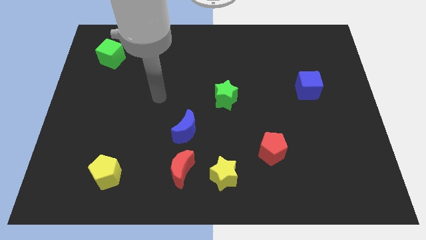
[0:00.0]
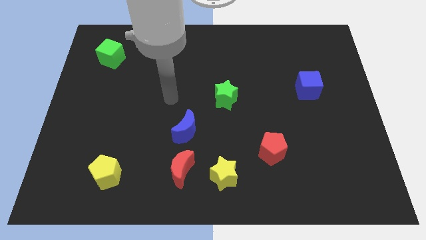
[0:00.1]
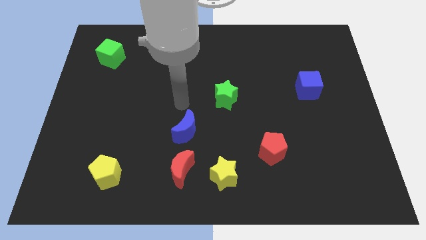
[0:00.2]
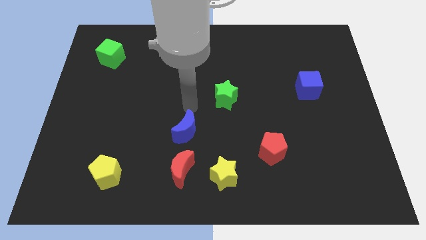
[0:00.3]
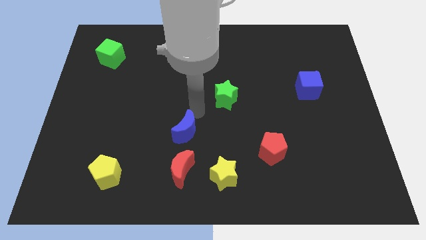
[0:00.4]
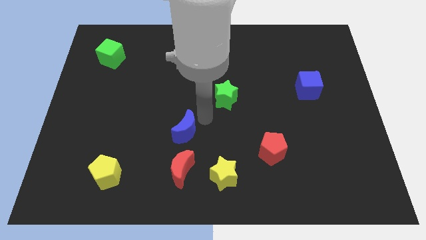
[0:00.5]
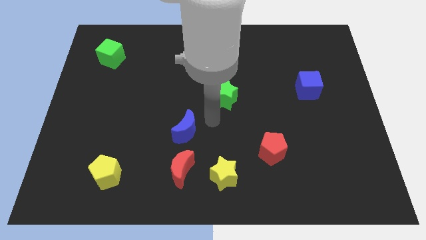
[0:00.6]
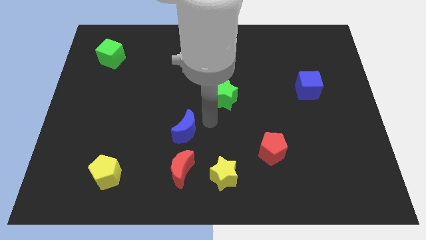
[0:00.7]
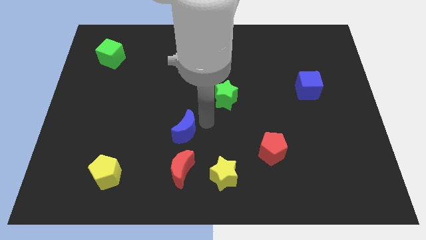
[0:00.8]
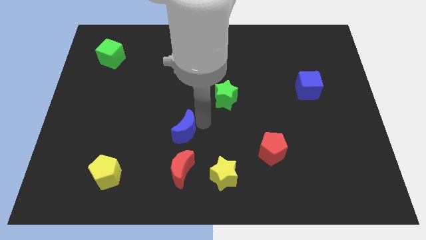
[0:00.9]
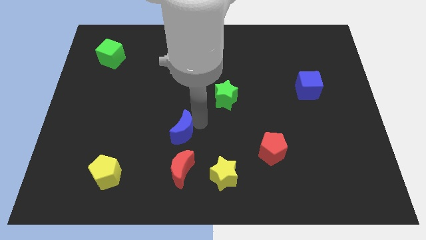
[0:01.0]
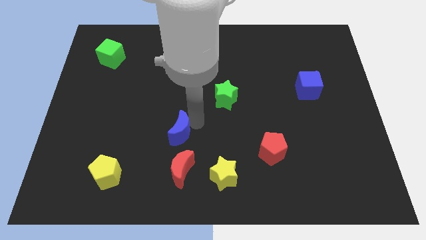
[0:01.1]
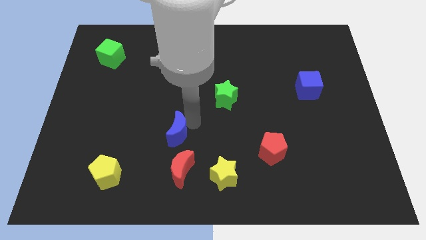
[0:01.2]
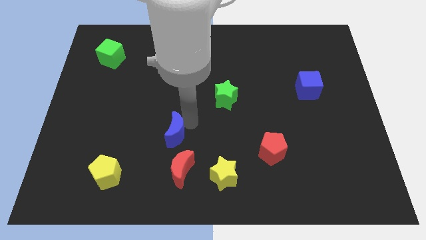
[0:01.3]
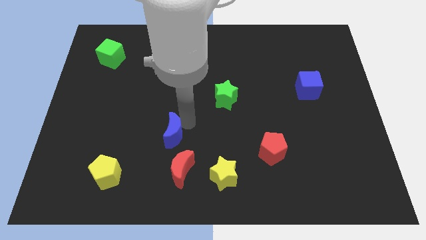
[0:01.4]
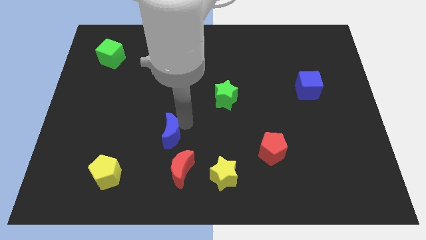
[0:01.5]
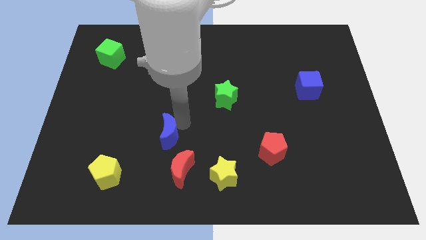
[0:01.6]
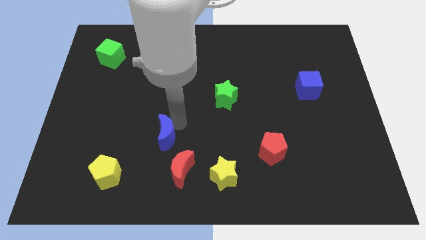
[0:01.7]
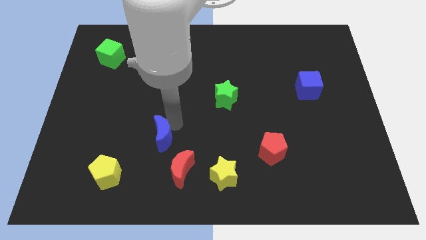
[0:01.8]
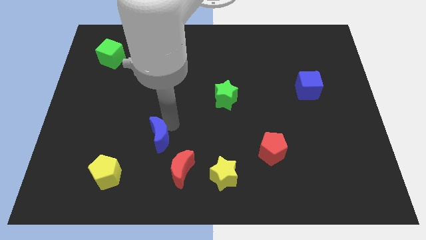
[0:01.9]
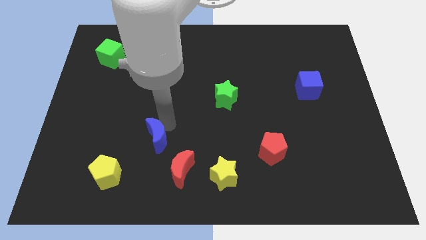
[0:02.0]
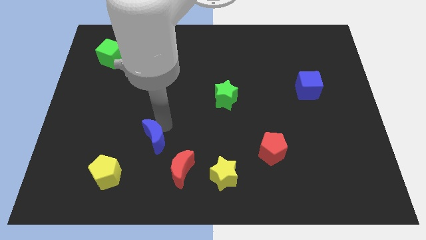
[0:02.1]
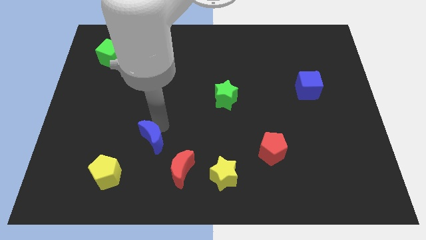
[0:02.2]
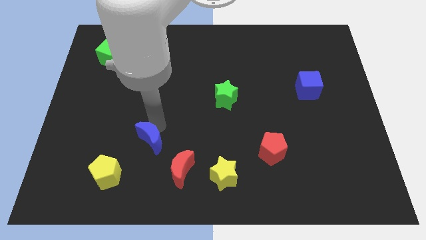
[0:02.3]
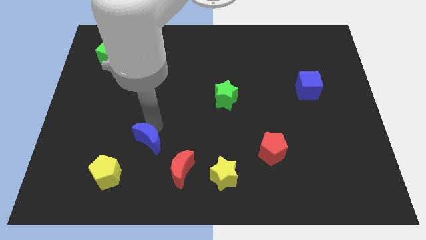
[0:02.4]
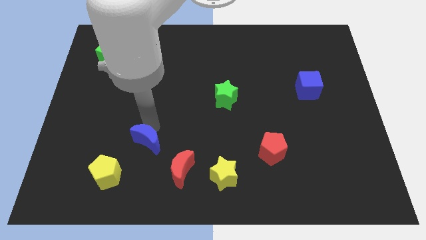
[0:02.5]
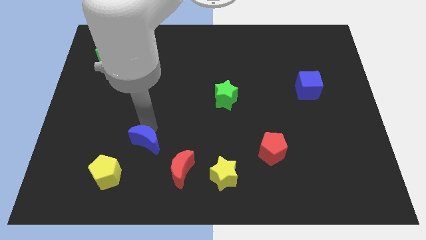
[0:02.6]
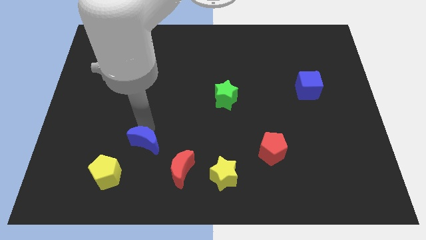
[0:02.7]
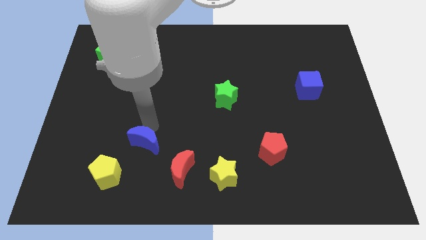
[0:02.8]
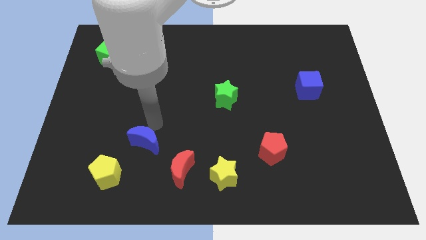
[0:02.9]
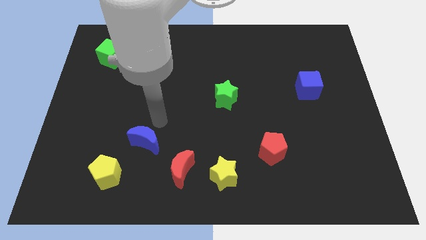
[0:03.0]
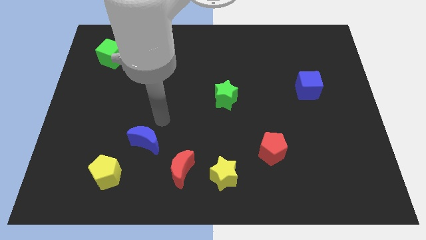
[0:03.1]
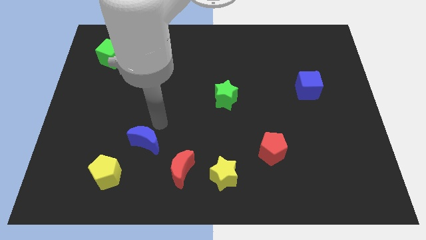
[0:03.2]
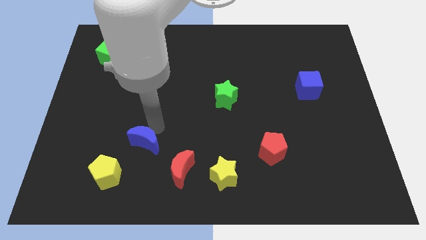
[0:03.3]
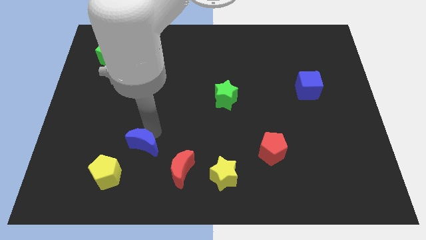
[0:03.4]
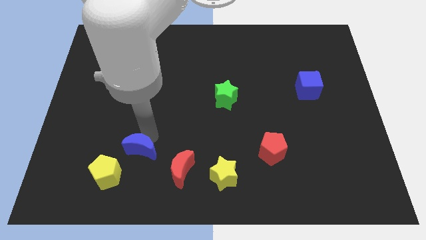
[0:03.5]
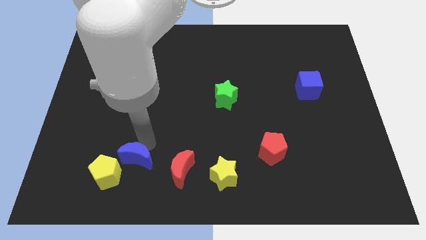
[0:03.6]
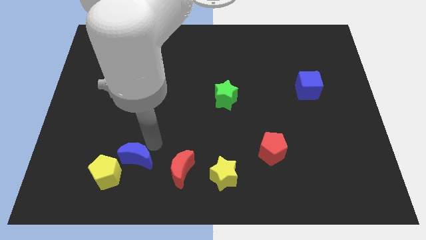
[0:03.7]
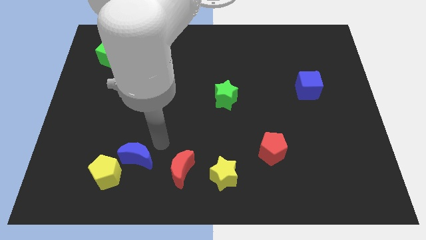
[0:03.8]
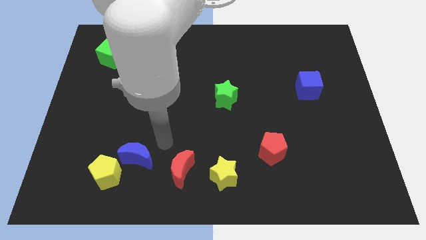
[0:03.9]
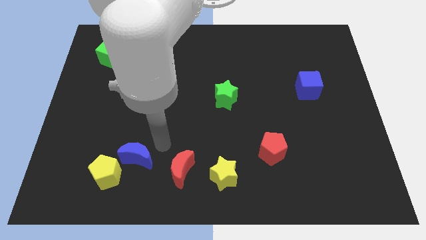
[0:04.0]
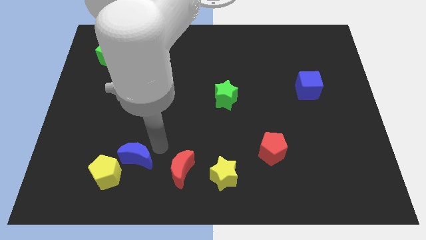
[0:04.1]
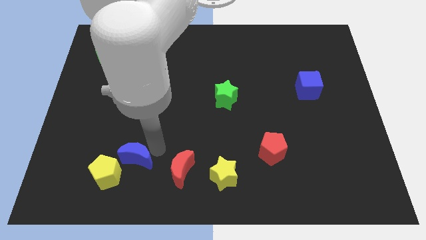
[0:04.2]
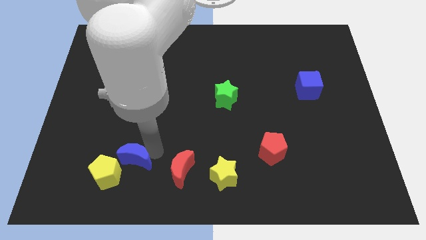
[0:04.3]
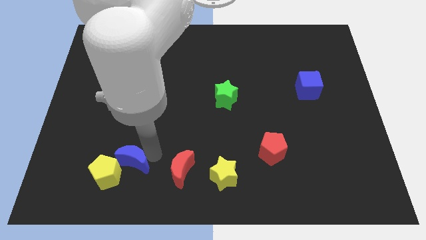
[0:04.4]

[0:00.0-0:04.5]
slide the blue moon to the yellow pentagon

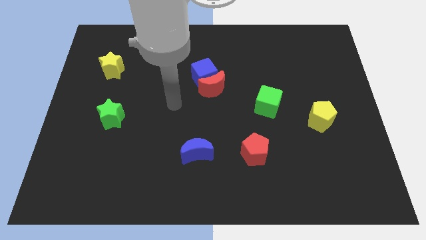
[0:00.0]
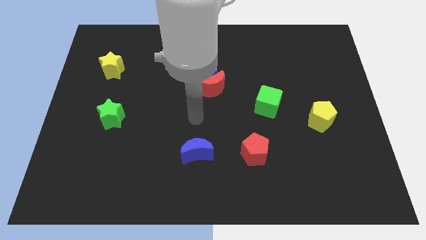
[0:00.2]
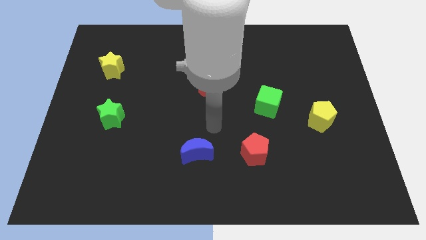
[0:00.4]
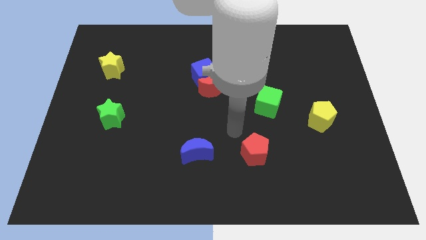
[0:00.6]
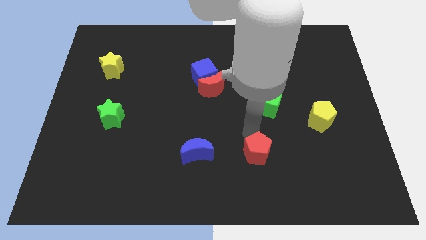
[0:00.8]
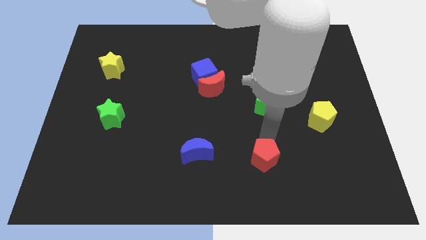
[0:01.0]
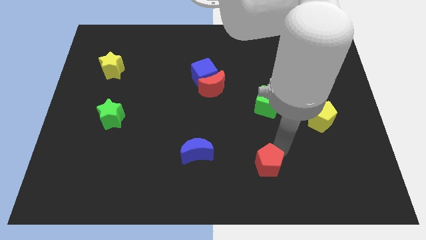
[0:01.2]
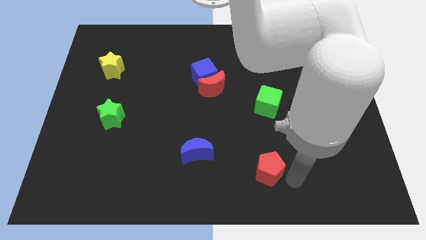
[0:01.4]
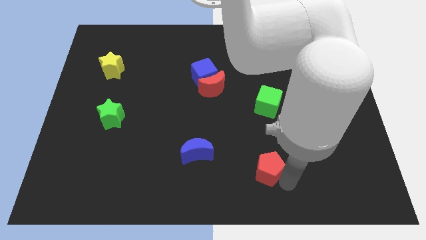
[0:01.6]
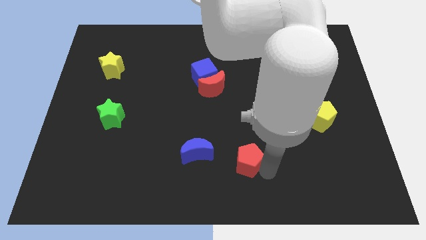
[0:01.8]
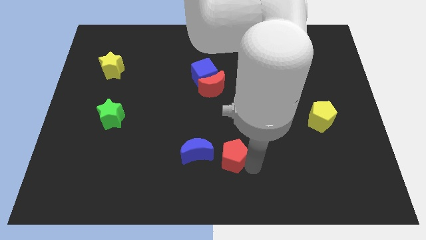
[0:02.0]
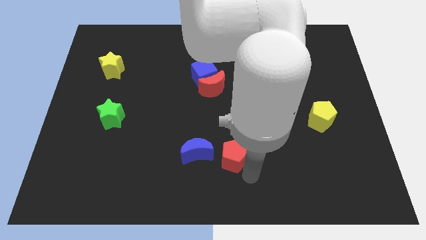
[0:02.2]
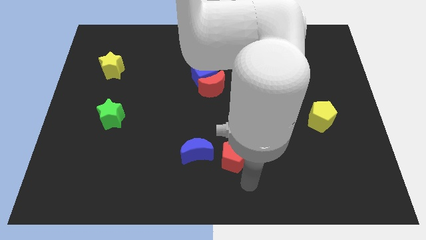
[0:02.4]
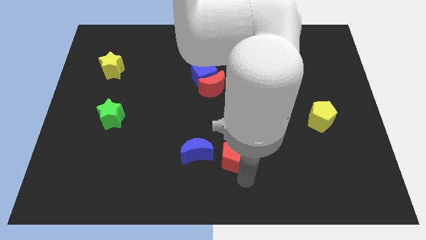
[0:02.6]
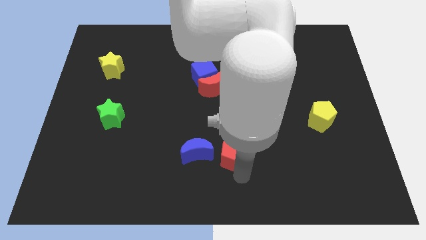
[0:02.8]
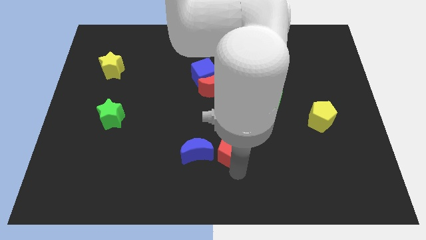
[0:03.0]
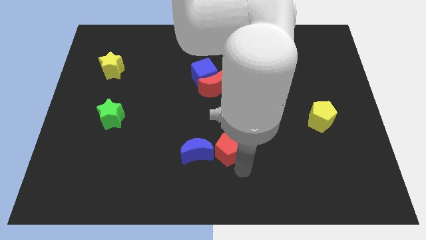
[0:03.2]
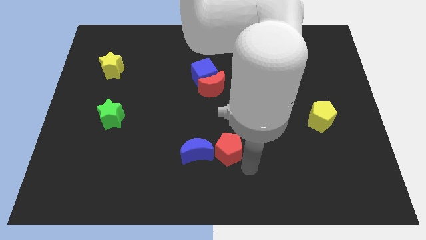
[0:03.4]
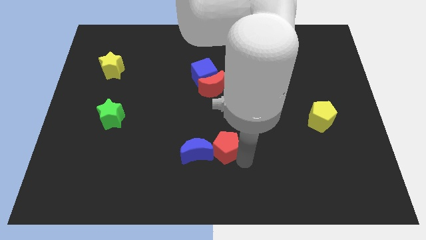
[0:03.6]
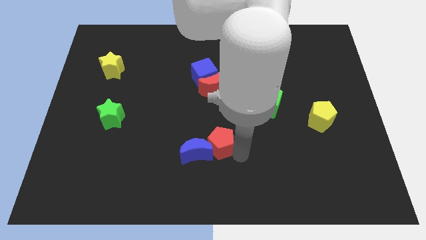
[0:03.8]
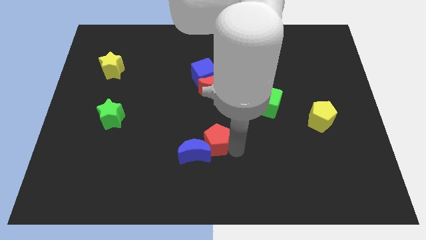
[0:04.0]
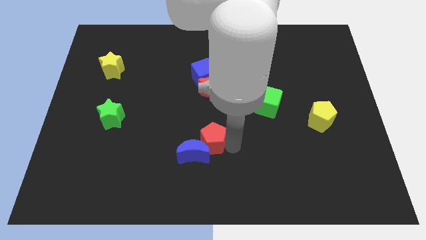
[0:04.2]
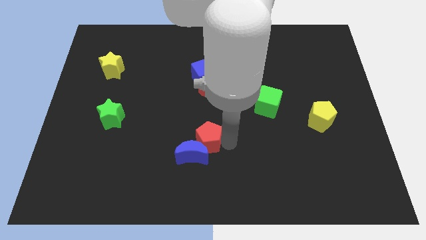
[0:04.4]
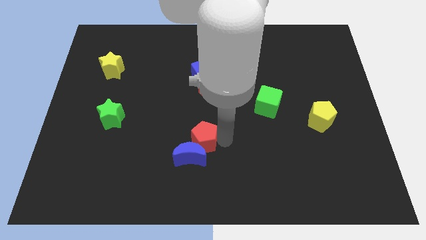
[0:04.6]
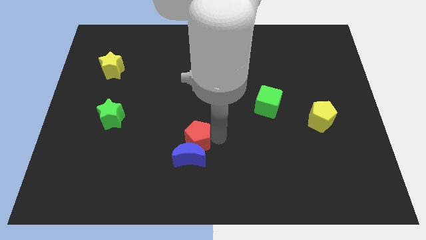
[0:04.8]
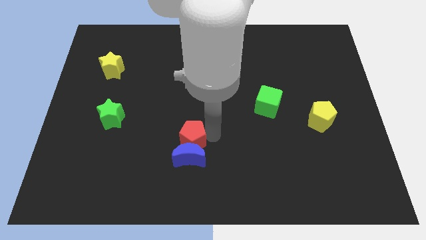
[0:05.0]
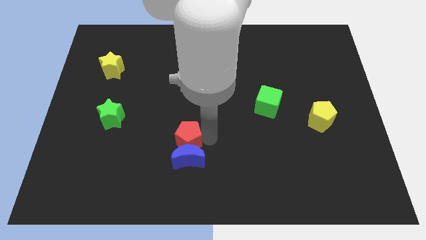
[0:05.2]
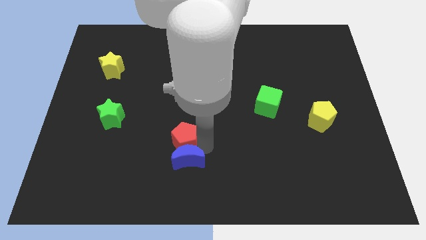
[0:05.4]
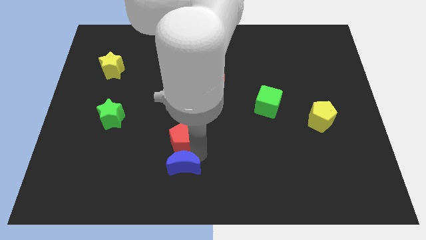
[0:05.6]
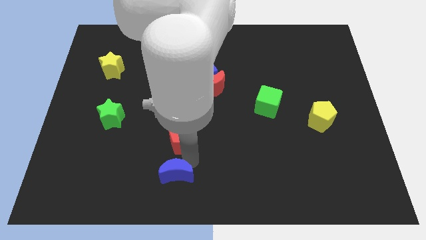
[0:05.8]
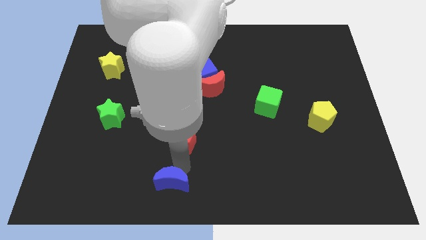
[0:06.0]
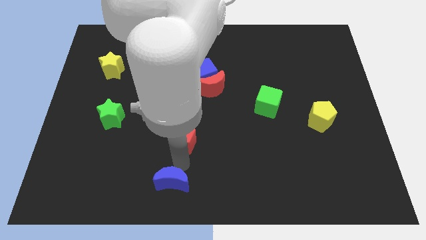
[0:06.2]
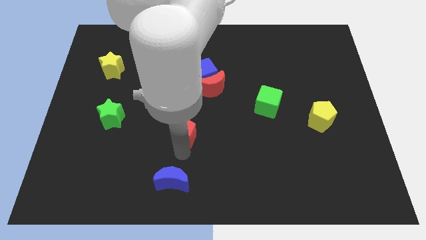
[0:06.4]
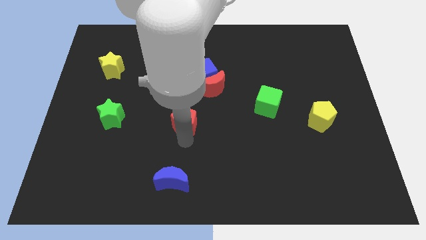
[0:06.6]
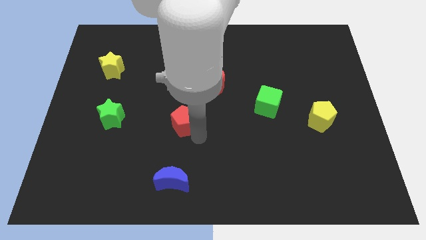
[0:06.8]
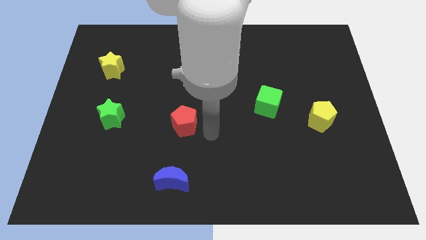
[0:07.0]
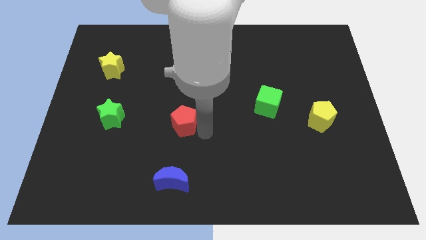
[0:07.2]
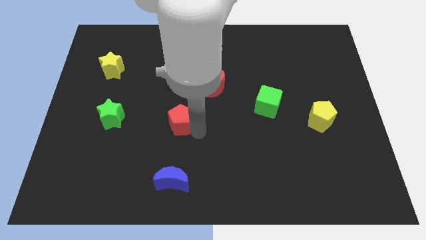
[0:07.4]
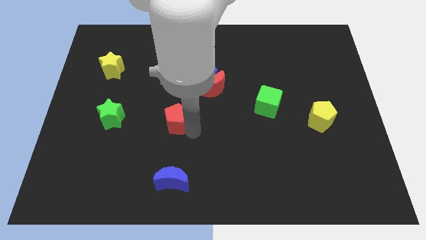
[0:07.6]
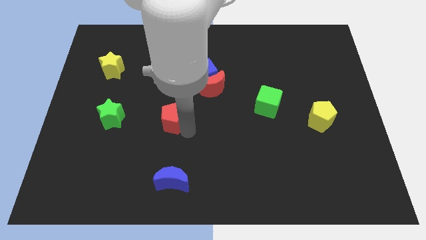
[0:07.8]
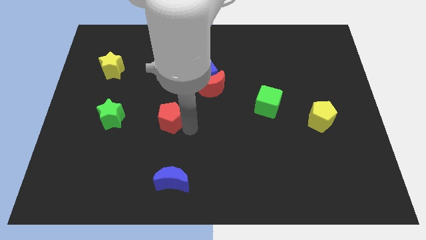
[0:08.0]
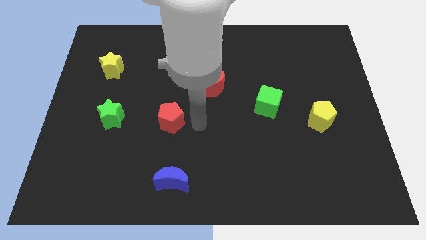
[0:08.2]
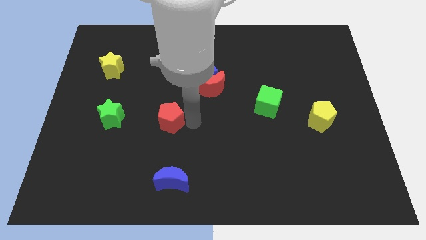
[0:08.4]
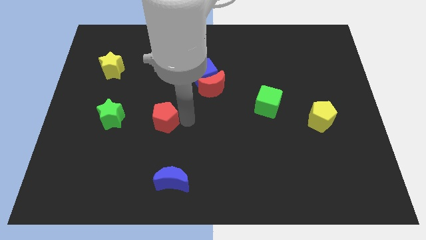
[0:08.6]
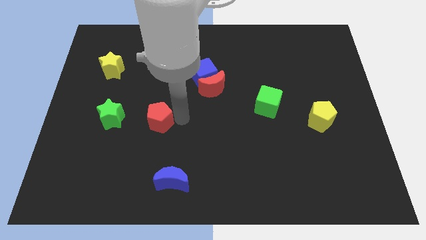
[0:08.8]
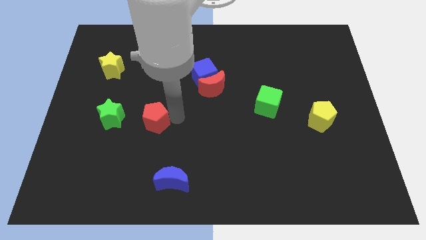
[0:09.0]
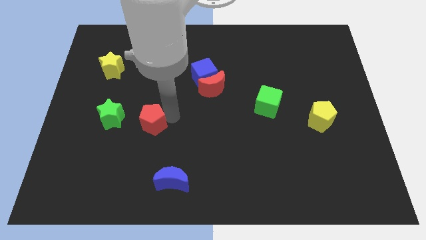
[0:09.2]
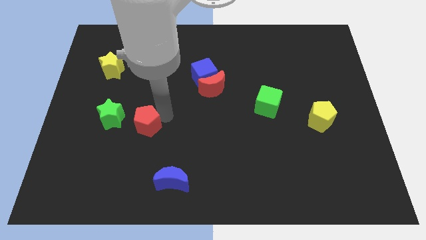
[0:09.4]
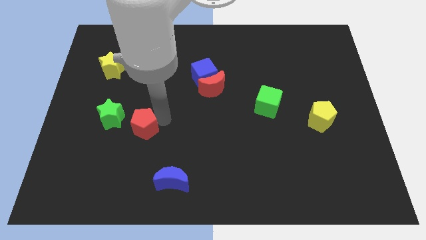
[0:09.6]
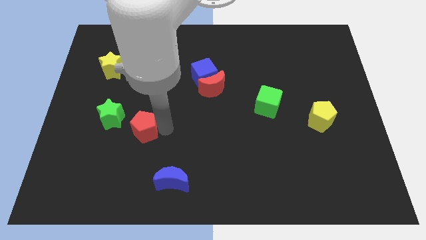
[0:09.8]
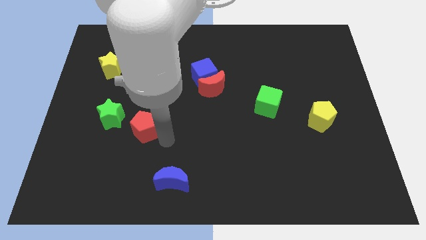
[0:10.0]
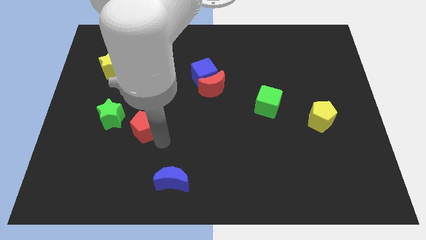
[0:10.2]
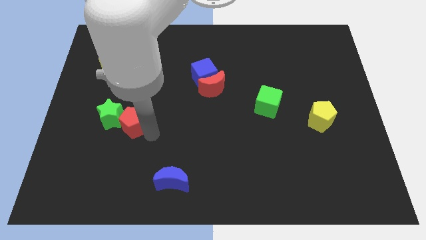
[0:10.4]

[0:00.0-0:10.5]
push the red pentagon next to the green star
